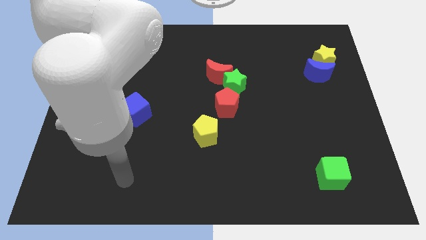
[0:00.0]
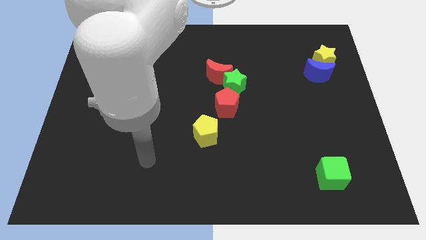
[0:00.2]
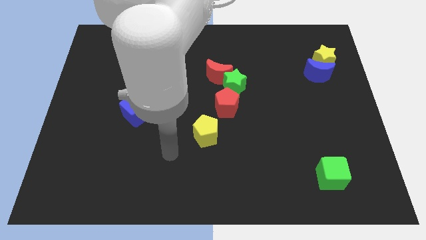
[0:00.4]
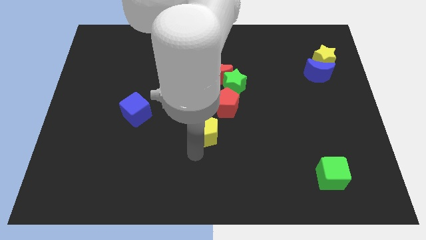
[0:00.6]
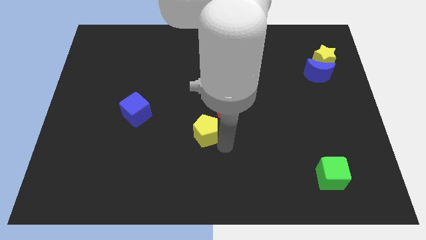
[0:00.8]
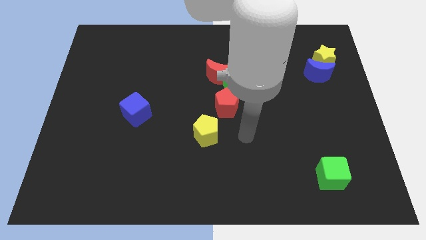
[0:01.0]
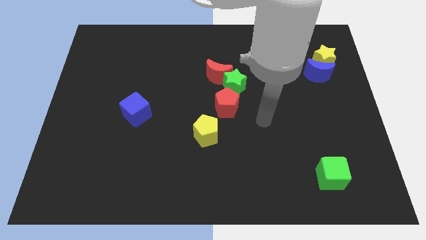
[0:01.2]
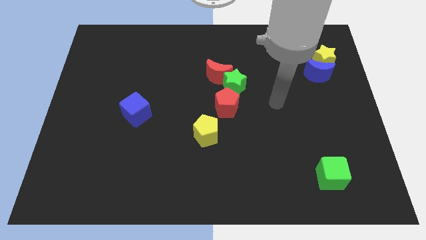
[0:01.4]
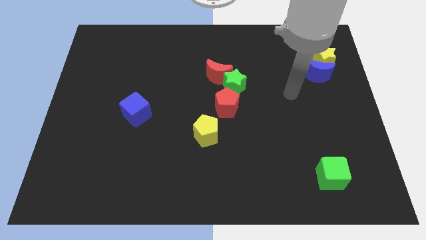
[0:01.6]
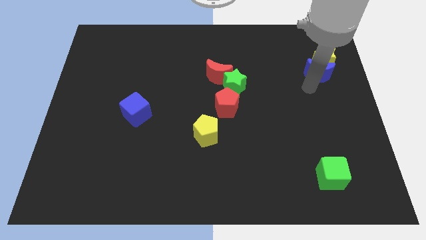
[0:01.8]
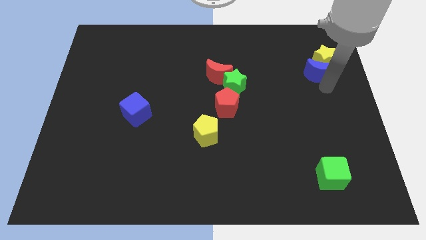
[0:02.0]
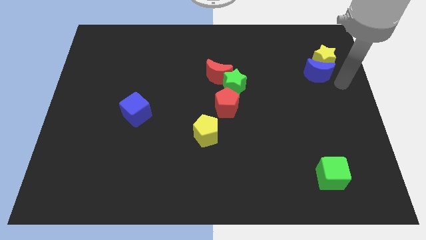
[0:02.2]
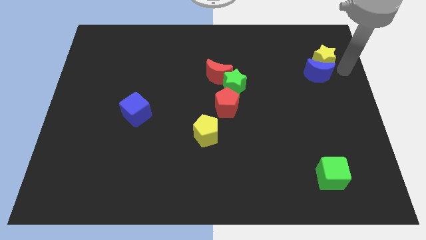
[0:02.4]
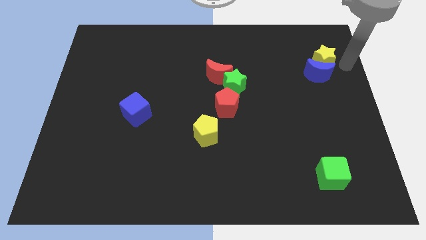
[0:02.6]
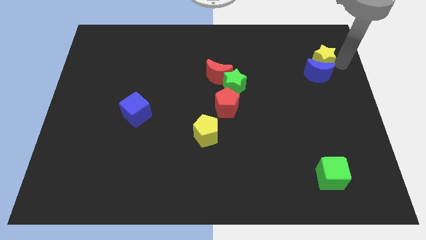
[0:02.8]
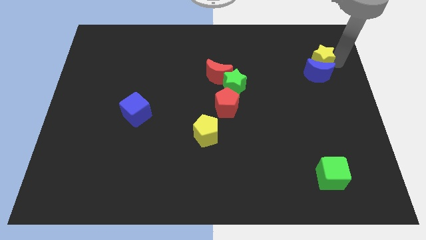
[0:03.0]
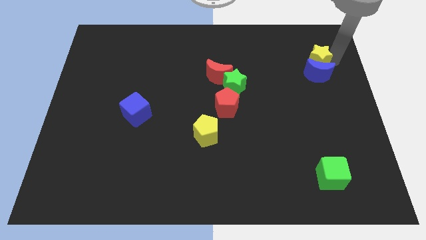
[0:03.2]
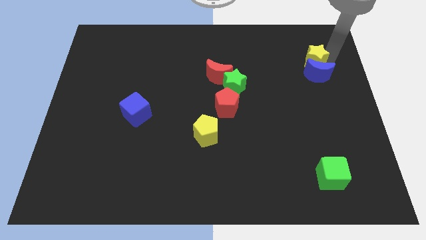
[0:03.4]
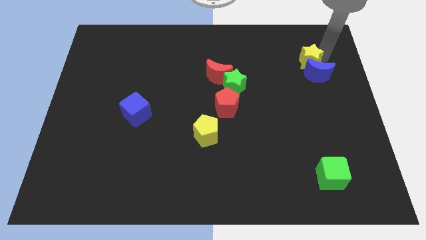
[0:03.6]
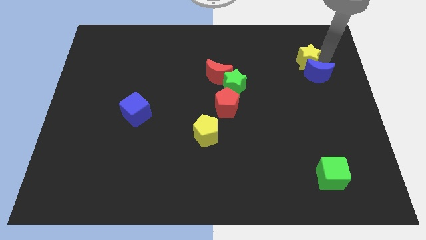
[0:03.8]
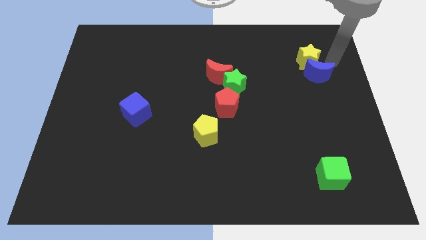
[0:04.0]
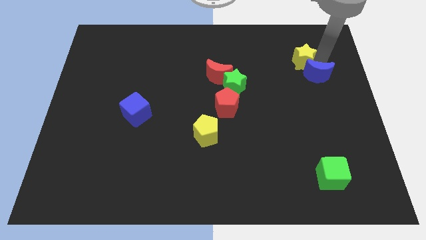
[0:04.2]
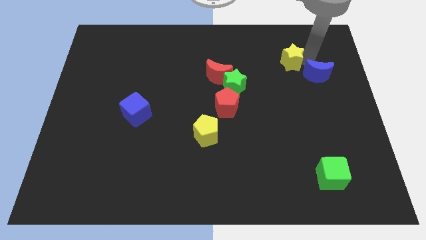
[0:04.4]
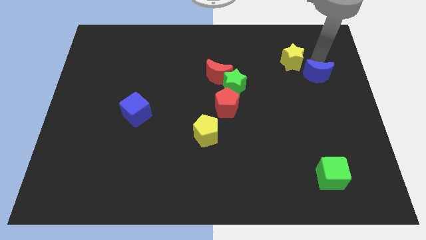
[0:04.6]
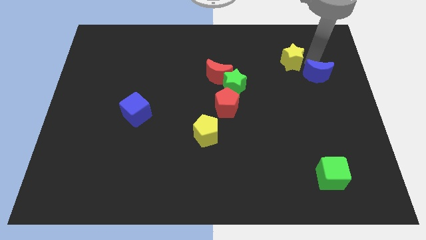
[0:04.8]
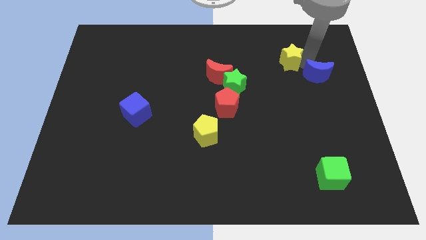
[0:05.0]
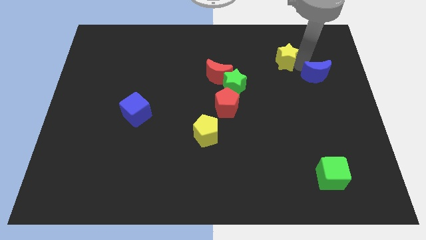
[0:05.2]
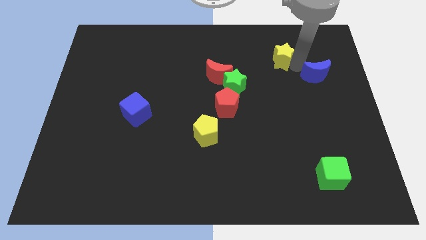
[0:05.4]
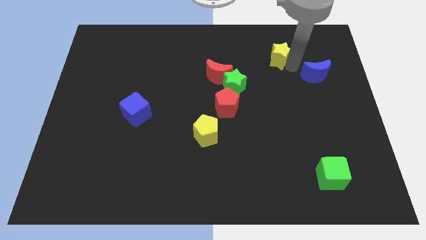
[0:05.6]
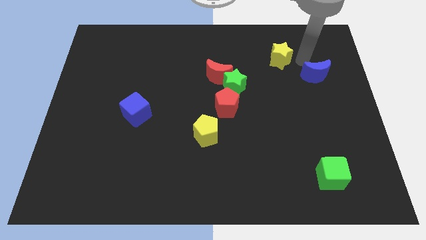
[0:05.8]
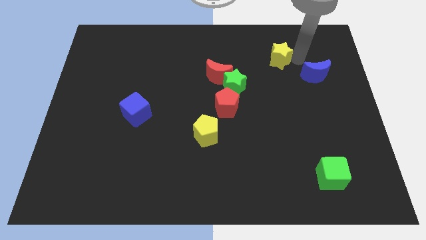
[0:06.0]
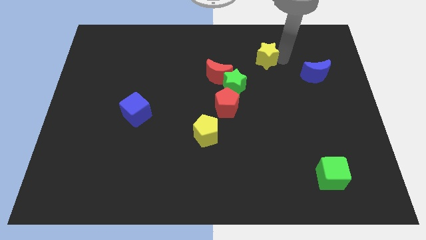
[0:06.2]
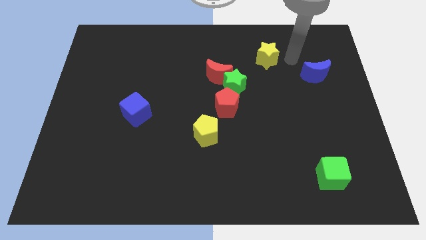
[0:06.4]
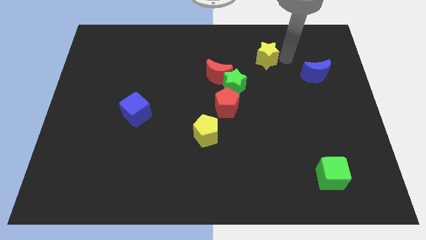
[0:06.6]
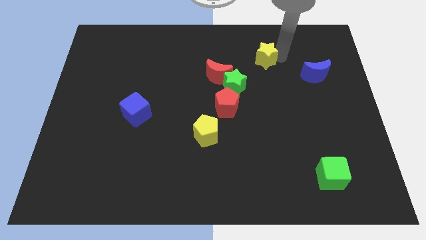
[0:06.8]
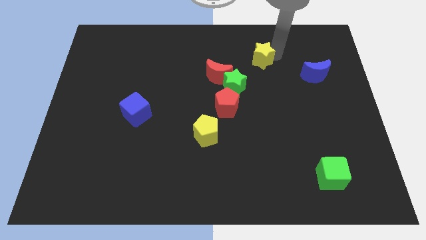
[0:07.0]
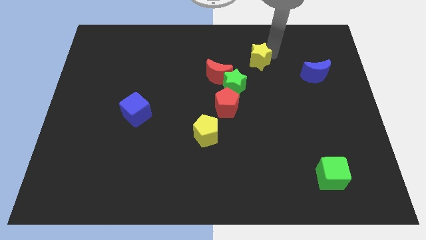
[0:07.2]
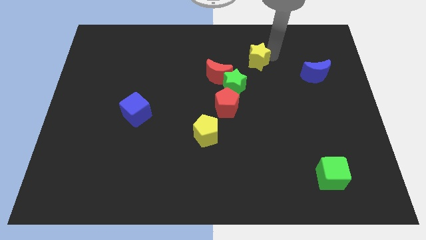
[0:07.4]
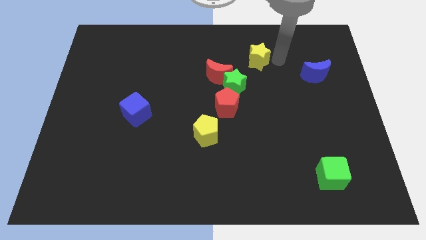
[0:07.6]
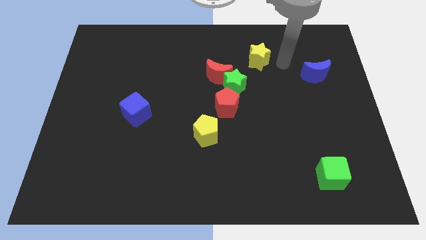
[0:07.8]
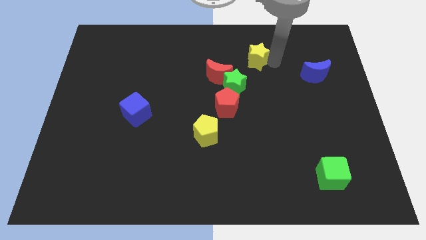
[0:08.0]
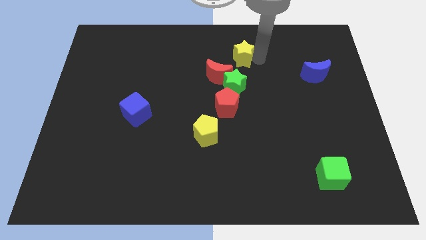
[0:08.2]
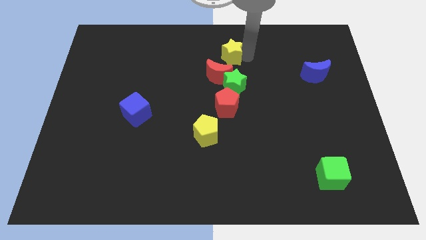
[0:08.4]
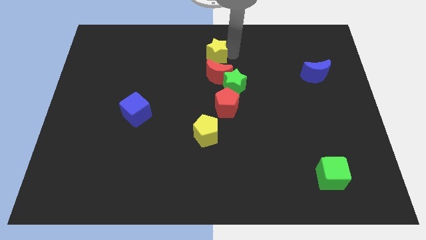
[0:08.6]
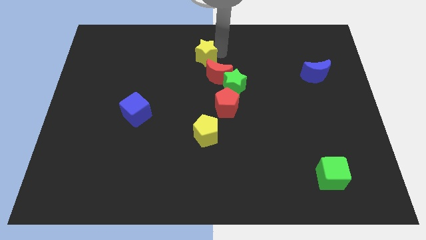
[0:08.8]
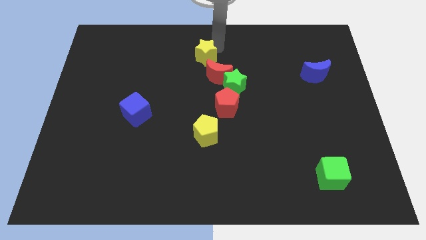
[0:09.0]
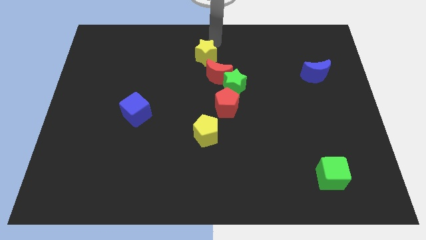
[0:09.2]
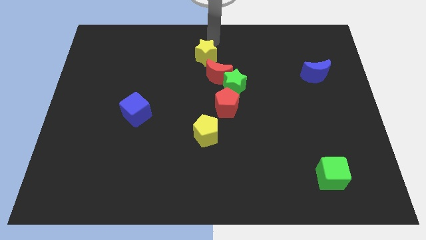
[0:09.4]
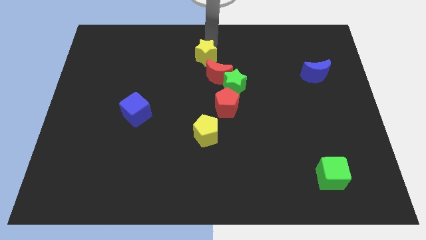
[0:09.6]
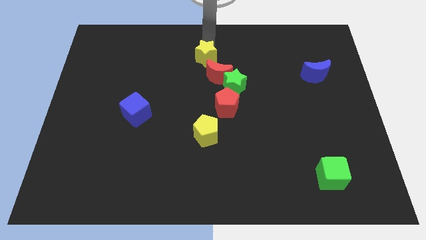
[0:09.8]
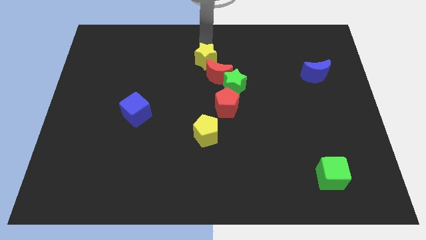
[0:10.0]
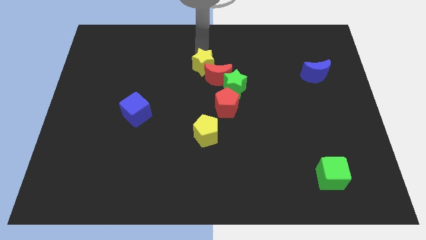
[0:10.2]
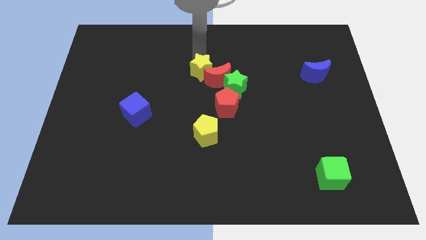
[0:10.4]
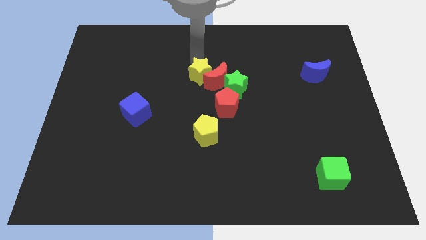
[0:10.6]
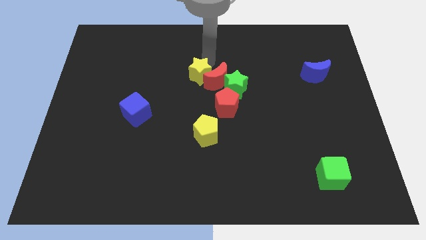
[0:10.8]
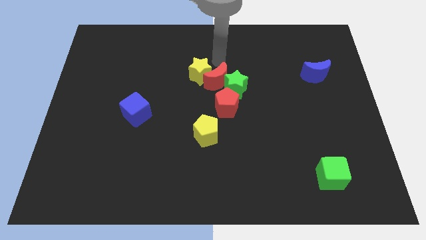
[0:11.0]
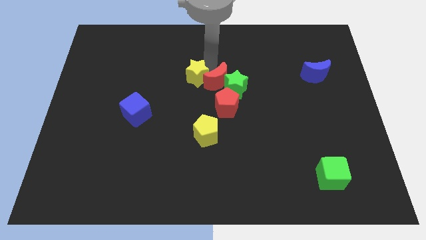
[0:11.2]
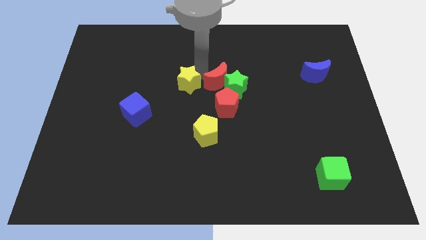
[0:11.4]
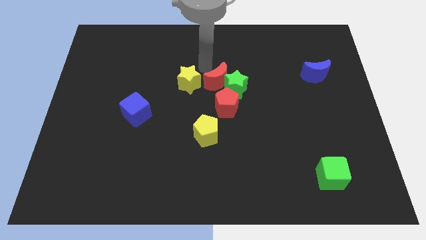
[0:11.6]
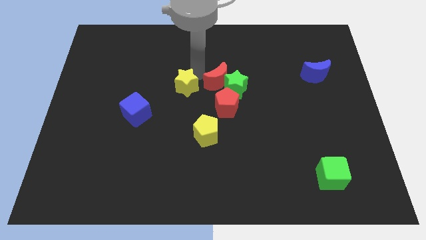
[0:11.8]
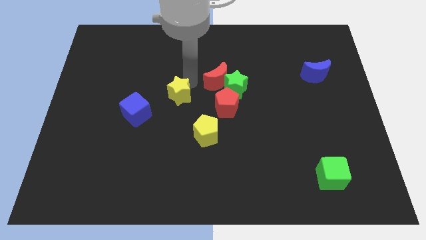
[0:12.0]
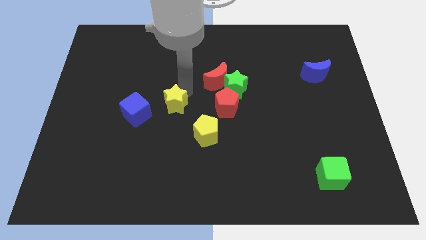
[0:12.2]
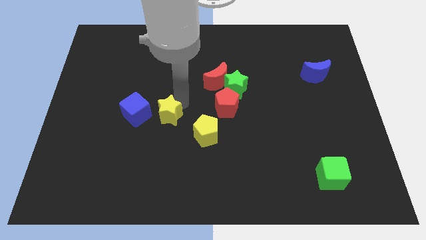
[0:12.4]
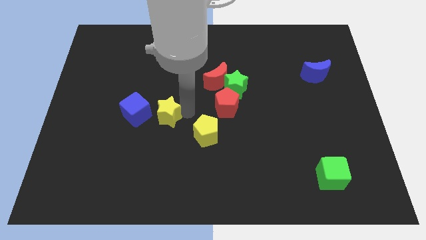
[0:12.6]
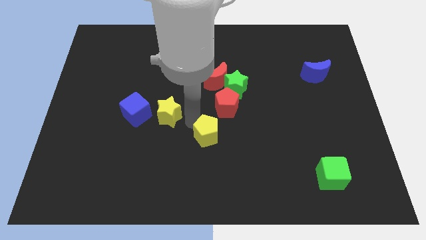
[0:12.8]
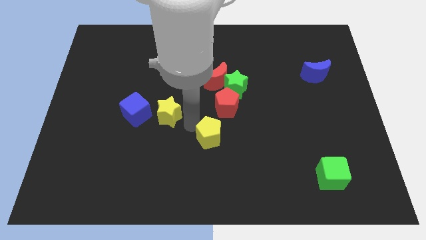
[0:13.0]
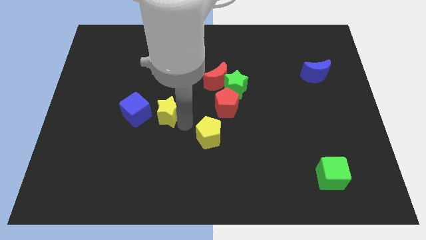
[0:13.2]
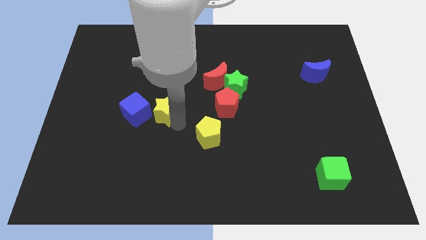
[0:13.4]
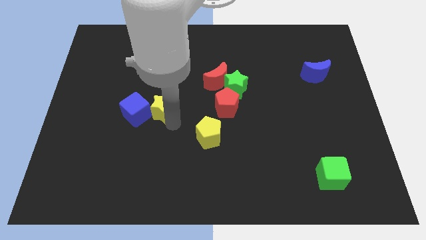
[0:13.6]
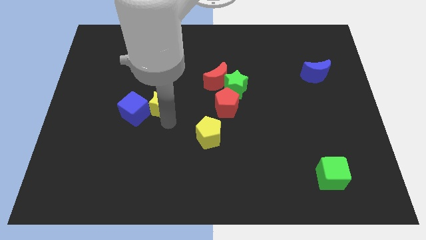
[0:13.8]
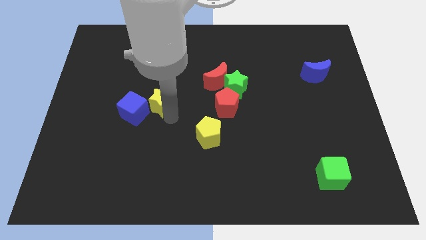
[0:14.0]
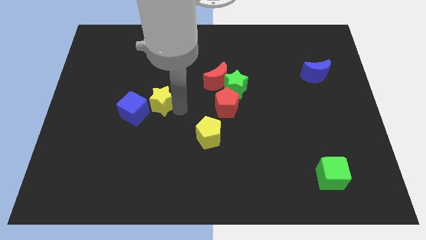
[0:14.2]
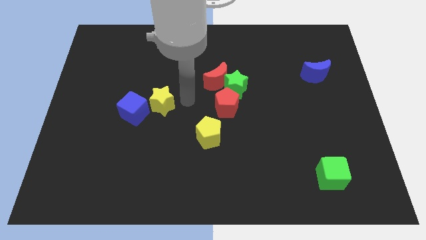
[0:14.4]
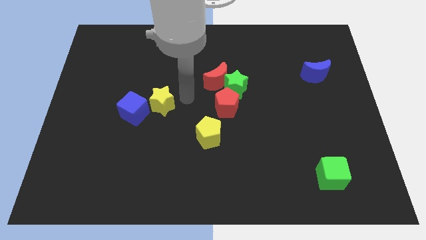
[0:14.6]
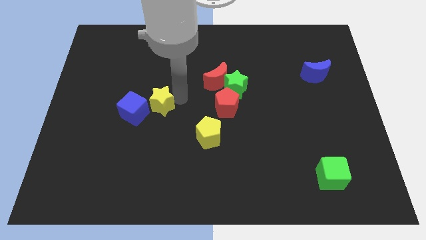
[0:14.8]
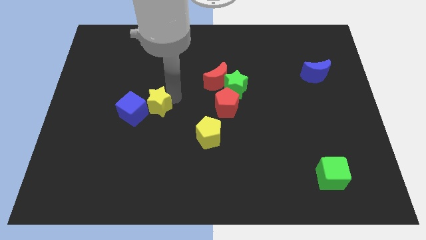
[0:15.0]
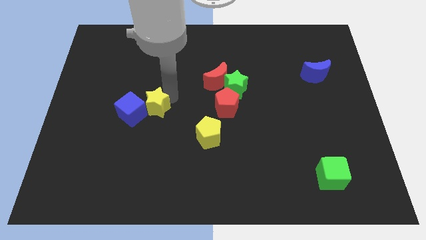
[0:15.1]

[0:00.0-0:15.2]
put the yellow star close to the blue cube
